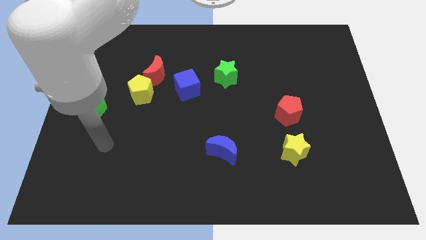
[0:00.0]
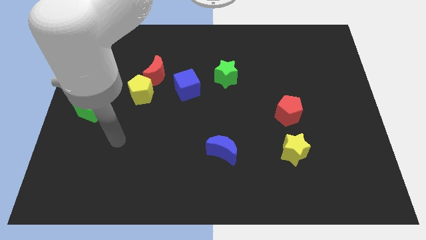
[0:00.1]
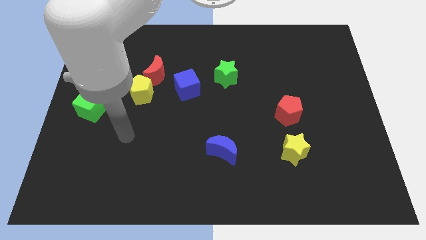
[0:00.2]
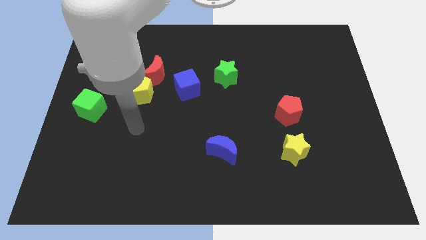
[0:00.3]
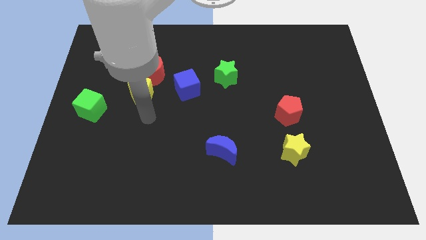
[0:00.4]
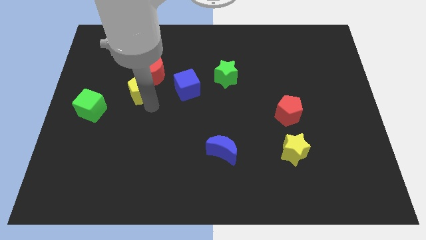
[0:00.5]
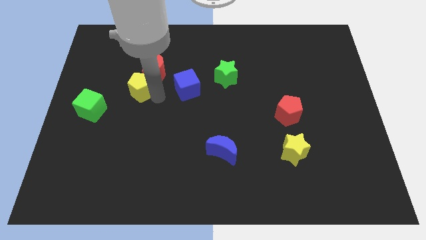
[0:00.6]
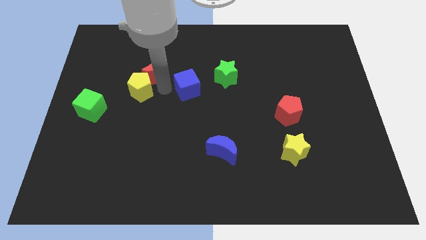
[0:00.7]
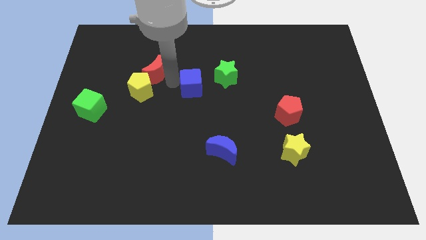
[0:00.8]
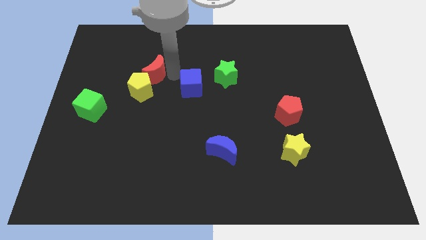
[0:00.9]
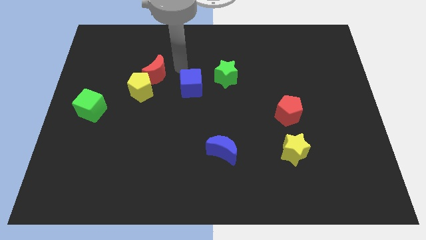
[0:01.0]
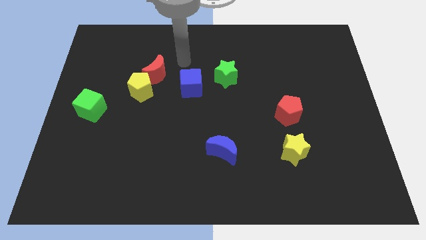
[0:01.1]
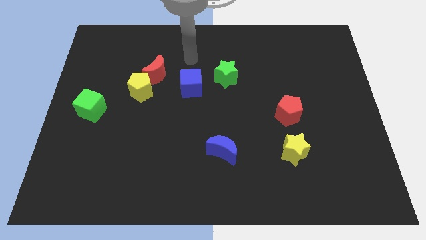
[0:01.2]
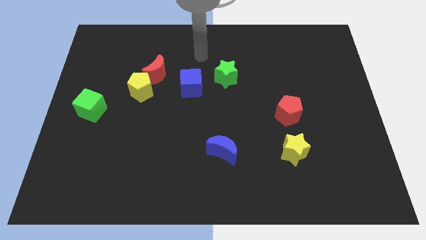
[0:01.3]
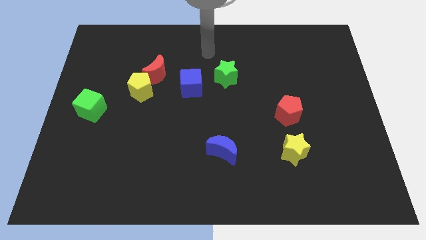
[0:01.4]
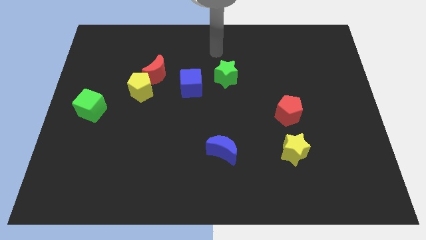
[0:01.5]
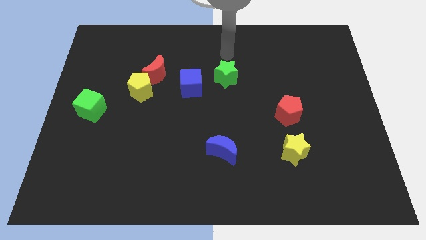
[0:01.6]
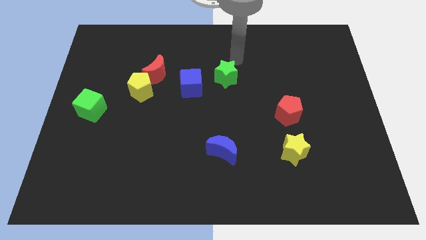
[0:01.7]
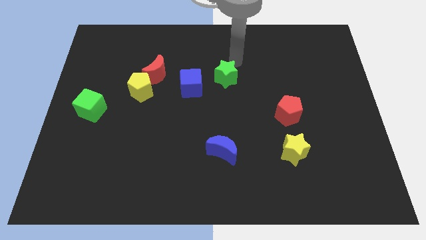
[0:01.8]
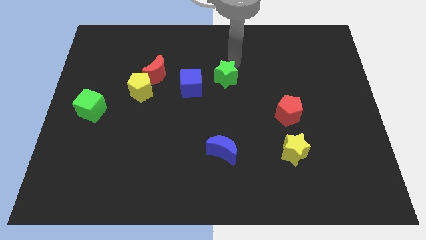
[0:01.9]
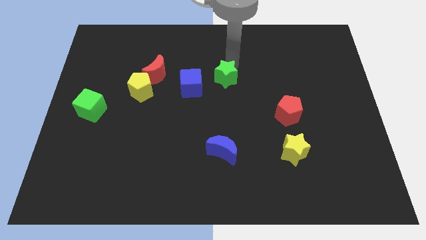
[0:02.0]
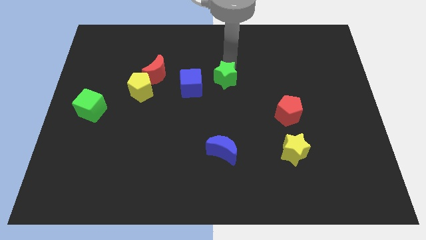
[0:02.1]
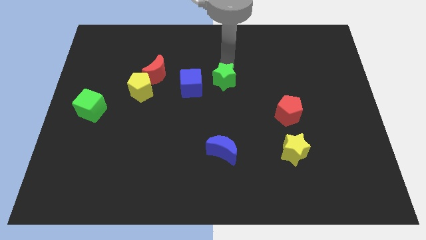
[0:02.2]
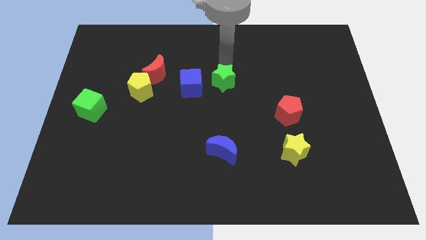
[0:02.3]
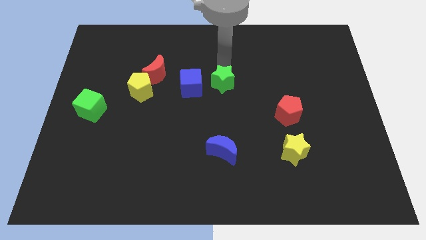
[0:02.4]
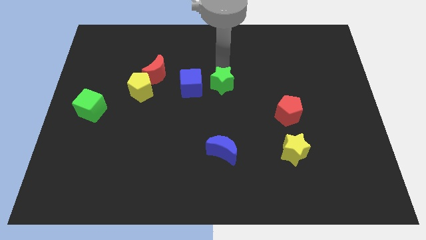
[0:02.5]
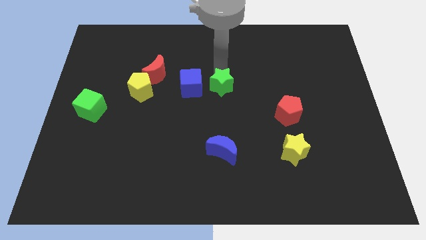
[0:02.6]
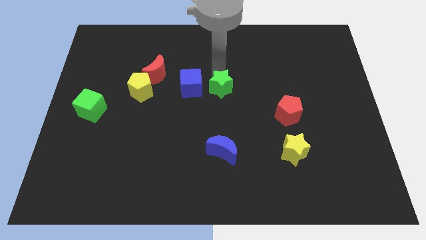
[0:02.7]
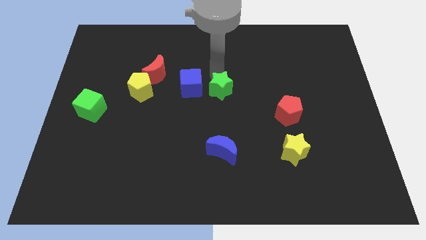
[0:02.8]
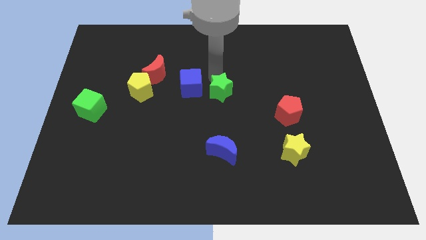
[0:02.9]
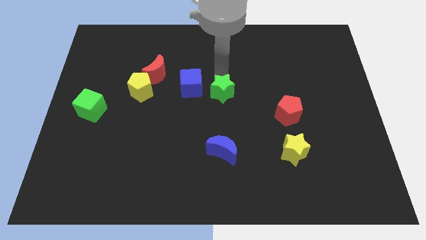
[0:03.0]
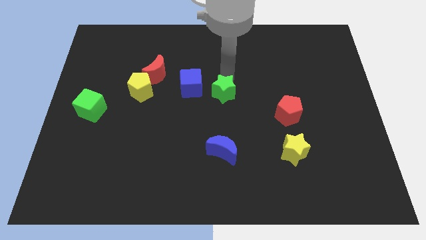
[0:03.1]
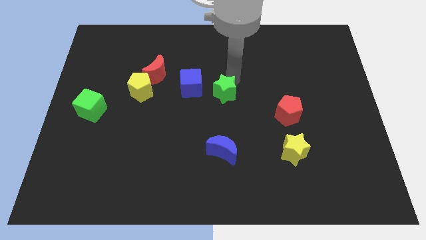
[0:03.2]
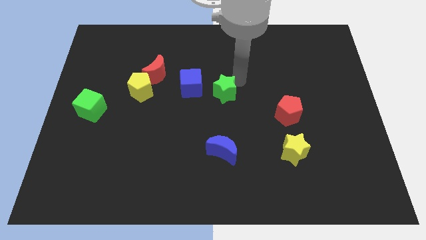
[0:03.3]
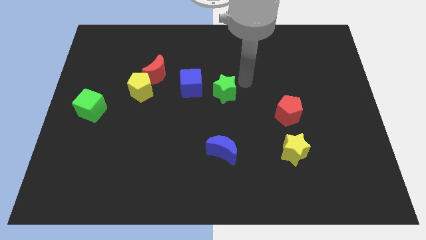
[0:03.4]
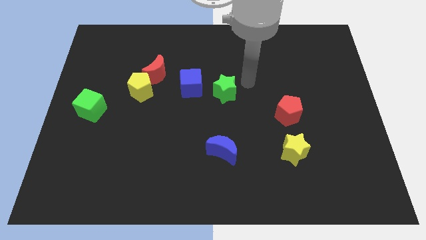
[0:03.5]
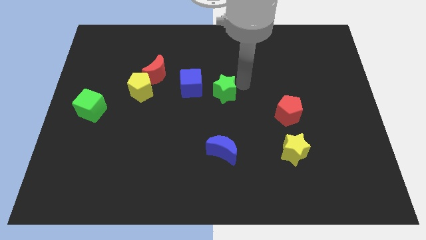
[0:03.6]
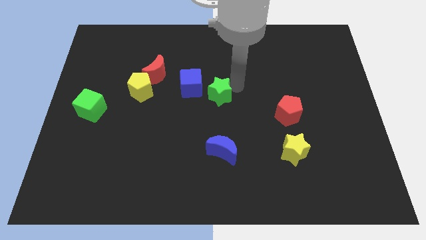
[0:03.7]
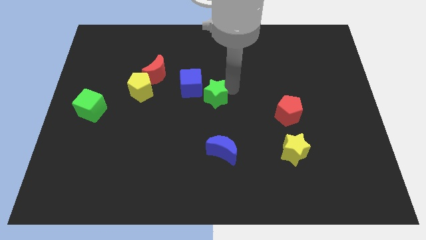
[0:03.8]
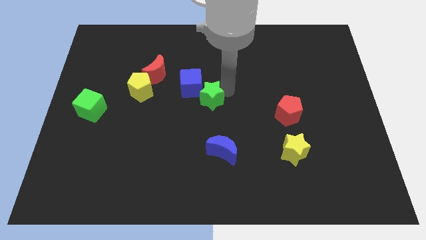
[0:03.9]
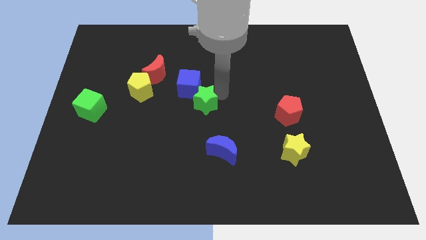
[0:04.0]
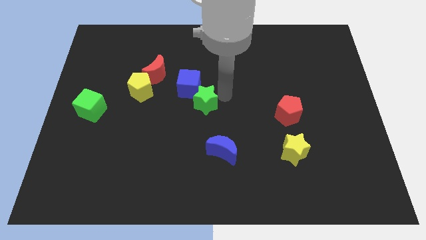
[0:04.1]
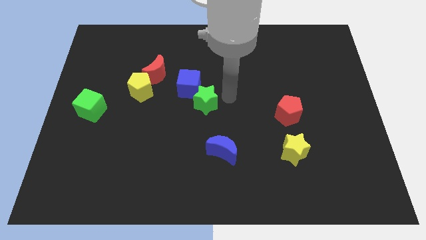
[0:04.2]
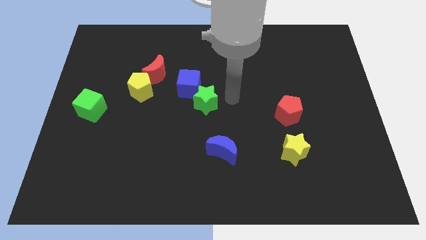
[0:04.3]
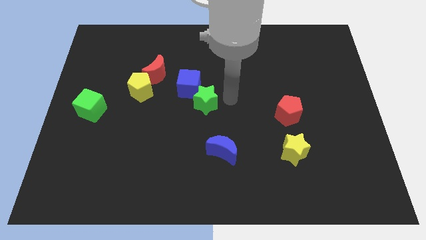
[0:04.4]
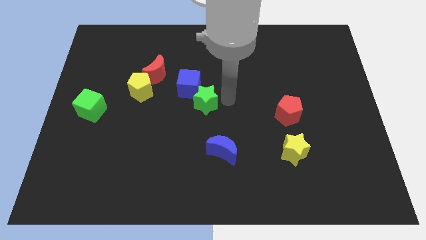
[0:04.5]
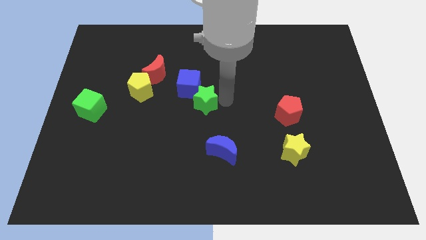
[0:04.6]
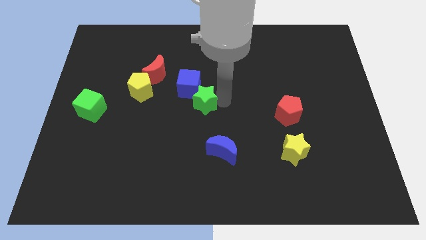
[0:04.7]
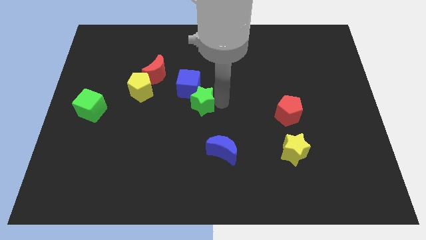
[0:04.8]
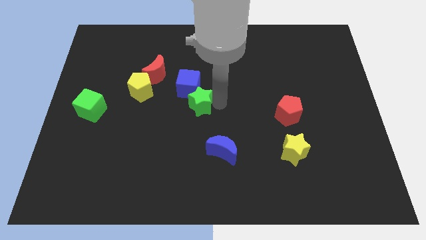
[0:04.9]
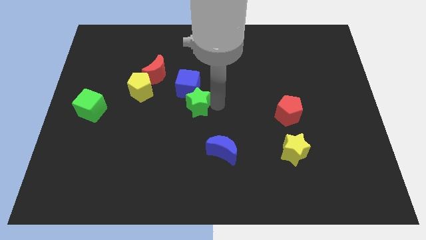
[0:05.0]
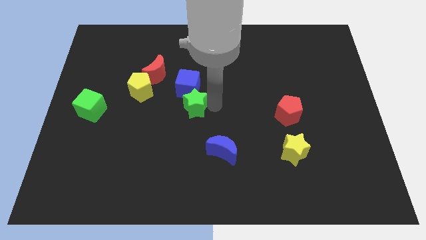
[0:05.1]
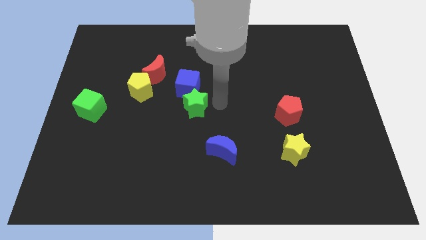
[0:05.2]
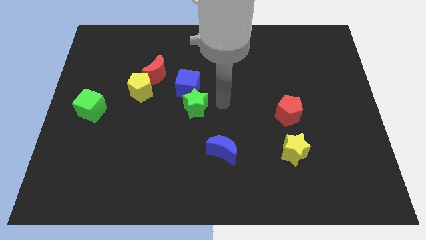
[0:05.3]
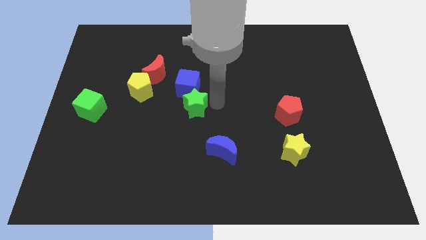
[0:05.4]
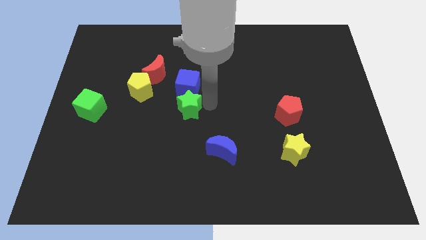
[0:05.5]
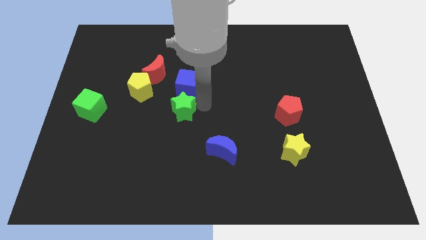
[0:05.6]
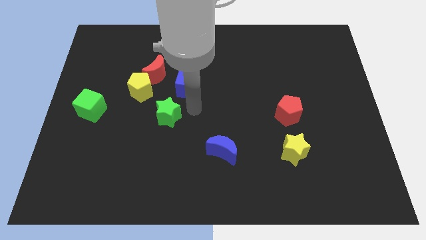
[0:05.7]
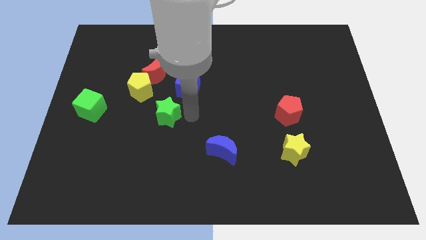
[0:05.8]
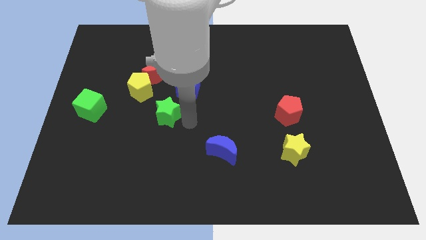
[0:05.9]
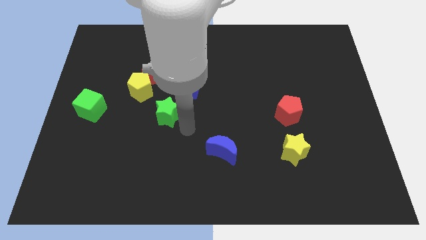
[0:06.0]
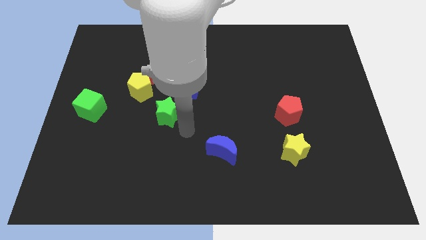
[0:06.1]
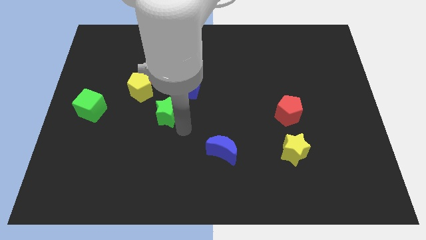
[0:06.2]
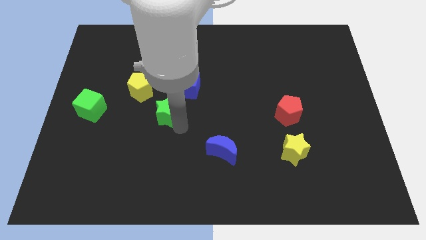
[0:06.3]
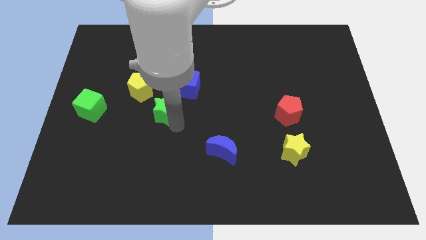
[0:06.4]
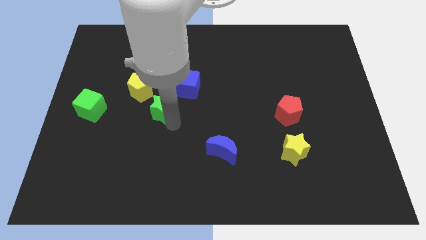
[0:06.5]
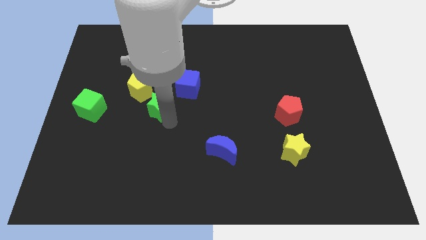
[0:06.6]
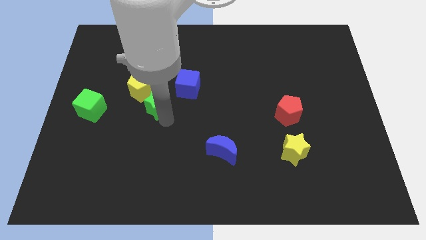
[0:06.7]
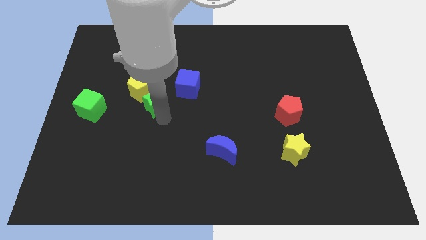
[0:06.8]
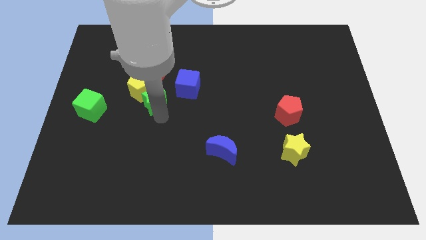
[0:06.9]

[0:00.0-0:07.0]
put the green star to the yellow pentagon

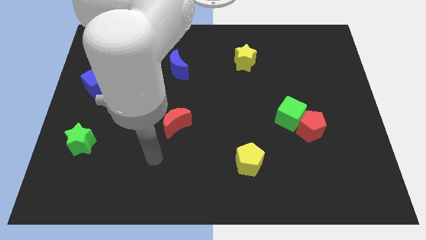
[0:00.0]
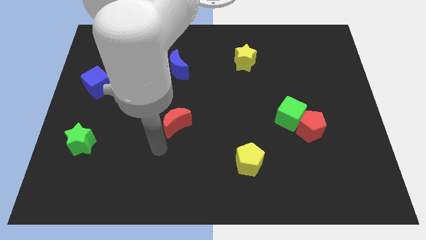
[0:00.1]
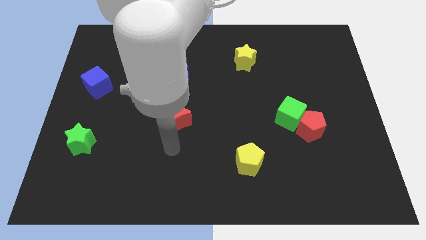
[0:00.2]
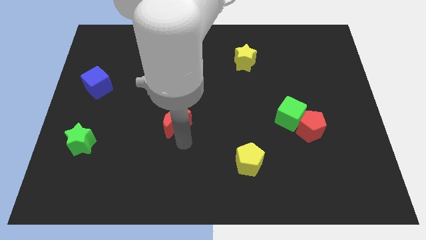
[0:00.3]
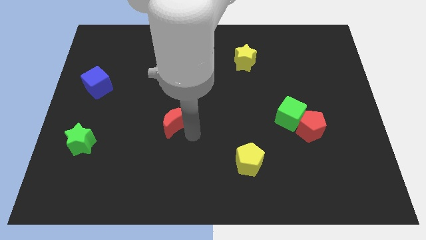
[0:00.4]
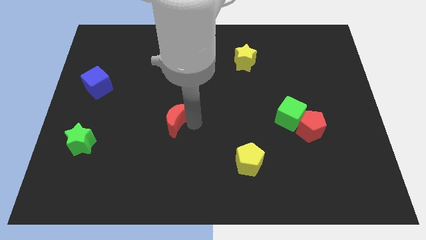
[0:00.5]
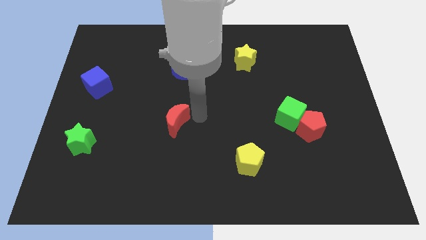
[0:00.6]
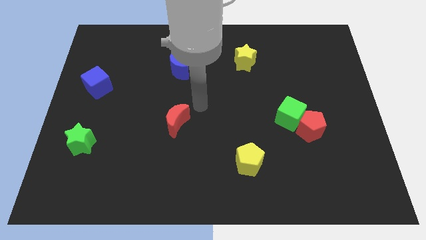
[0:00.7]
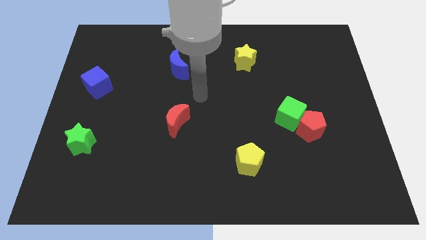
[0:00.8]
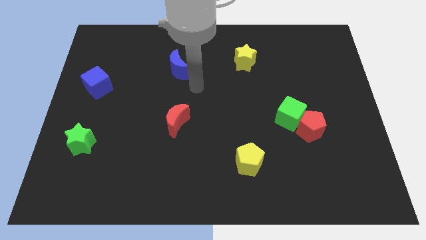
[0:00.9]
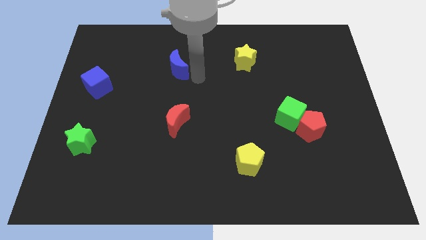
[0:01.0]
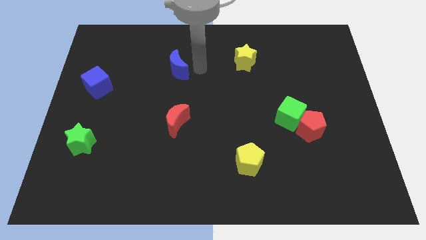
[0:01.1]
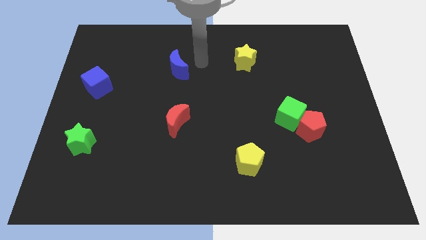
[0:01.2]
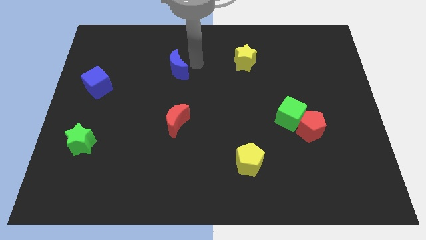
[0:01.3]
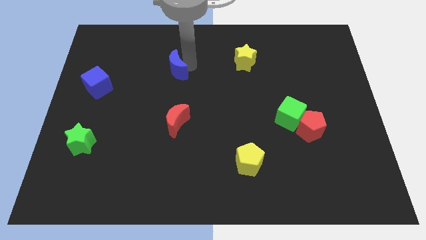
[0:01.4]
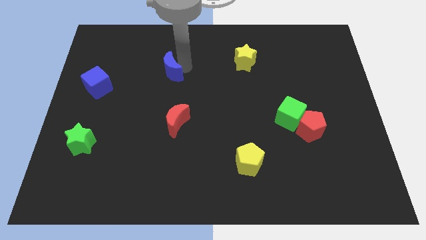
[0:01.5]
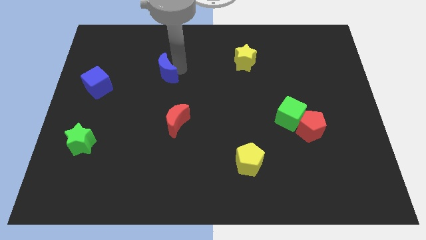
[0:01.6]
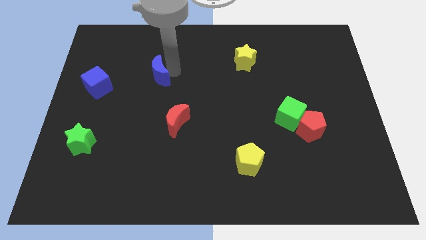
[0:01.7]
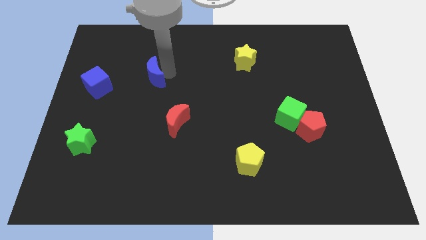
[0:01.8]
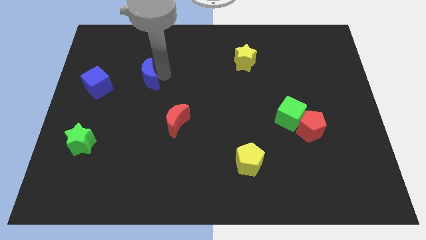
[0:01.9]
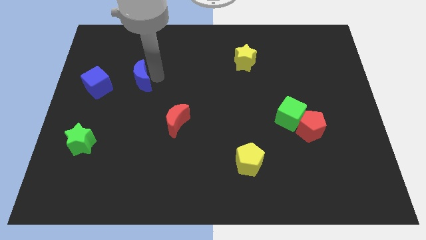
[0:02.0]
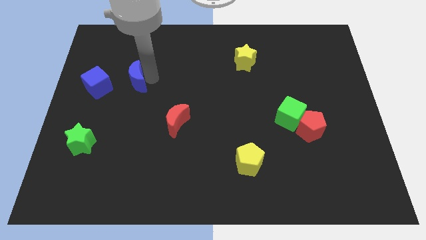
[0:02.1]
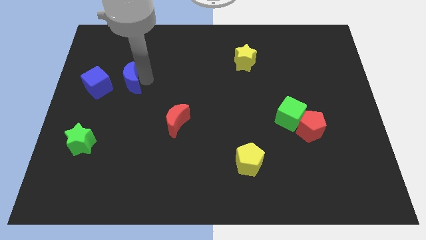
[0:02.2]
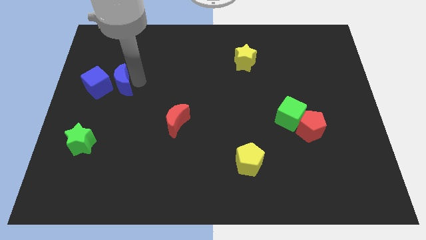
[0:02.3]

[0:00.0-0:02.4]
put the blue moon to the blue cube
